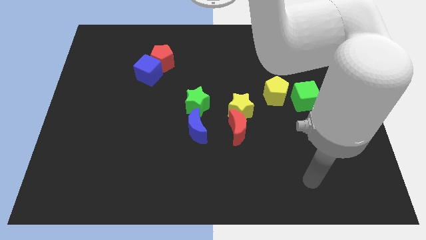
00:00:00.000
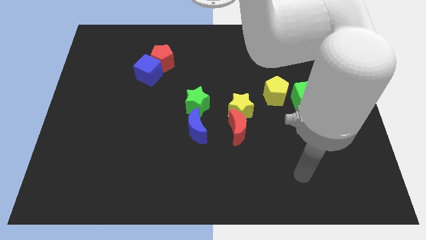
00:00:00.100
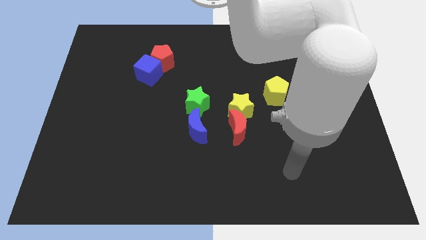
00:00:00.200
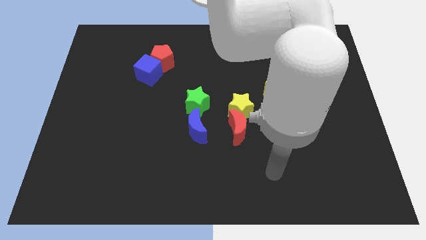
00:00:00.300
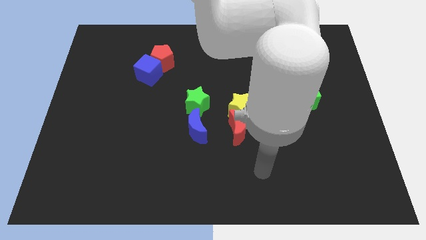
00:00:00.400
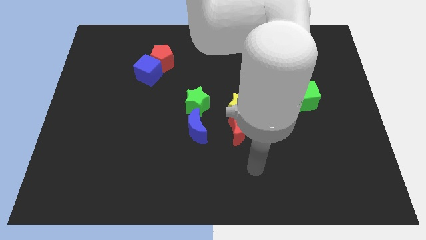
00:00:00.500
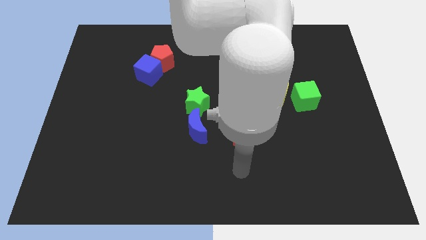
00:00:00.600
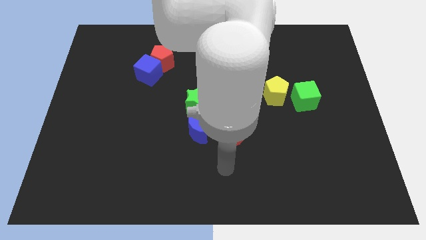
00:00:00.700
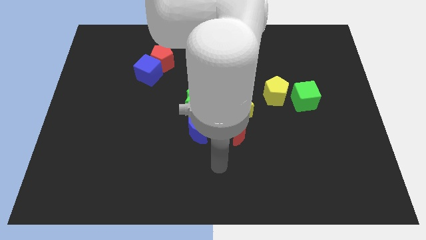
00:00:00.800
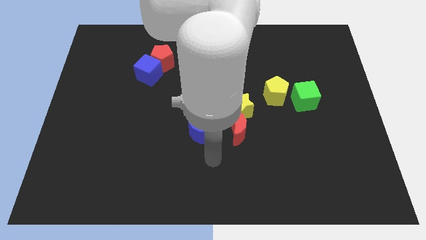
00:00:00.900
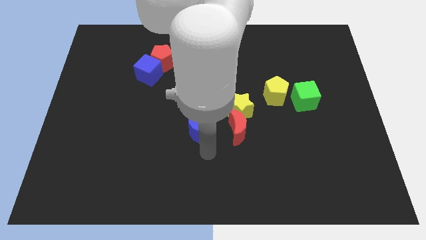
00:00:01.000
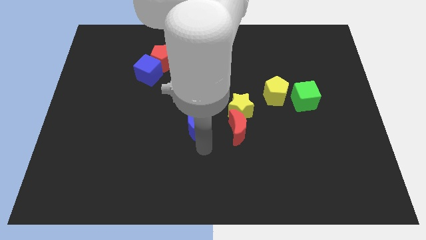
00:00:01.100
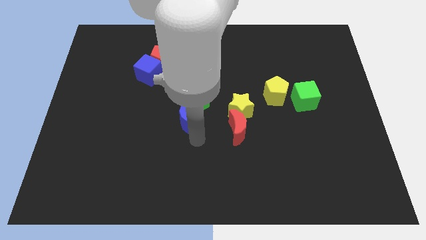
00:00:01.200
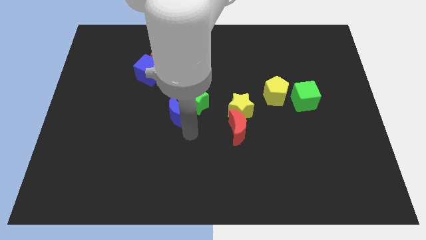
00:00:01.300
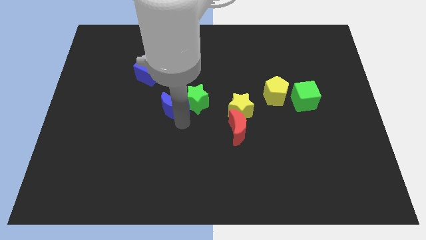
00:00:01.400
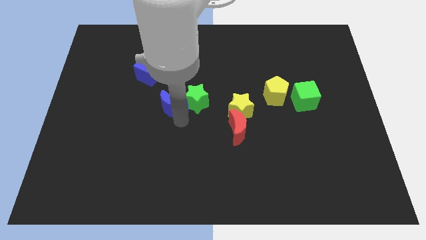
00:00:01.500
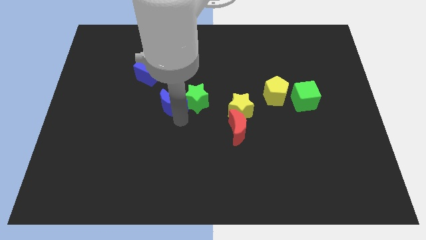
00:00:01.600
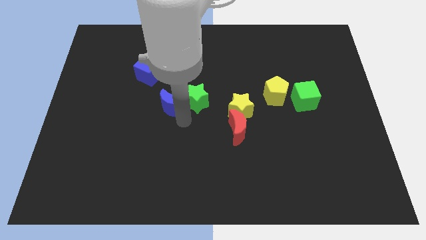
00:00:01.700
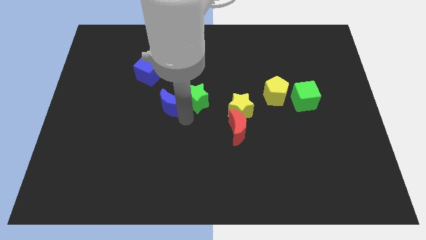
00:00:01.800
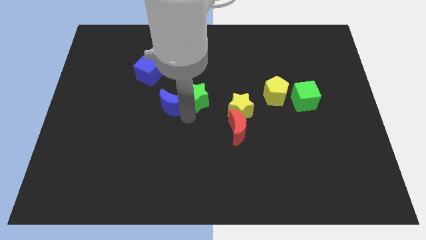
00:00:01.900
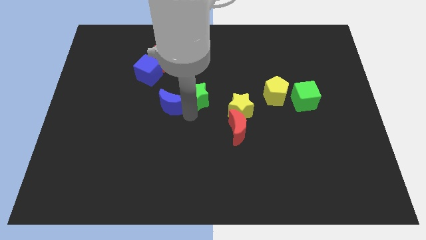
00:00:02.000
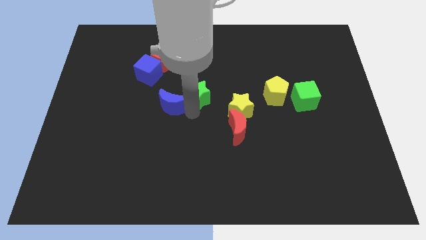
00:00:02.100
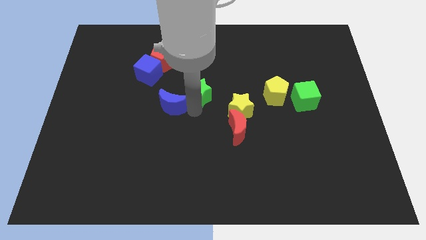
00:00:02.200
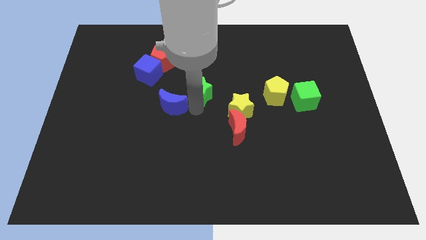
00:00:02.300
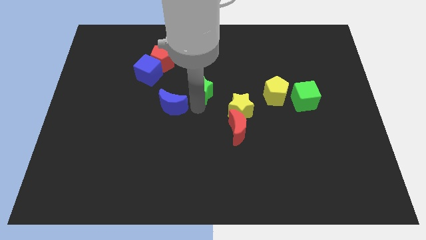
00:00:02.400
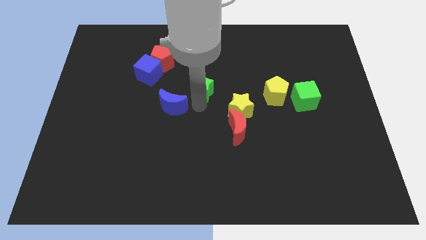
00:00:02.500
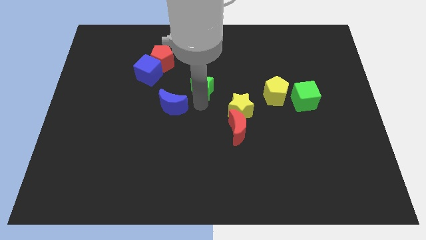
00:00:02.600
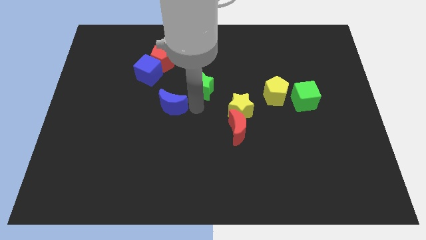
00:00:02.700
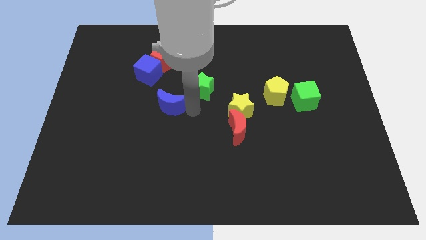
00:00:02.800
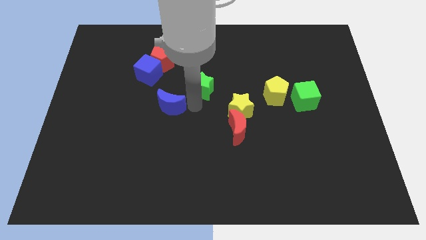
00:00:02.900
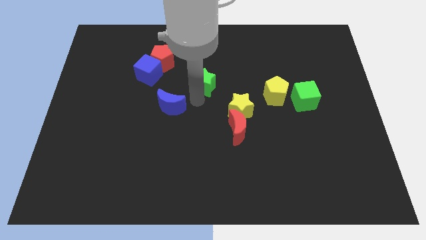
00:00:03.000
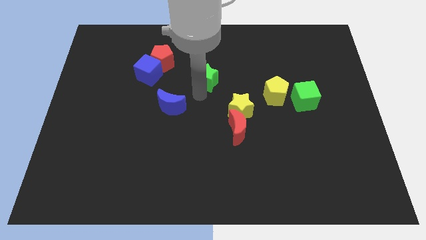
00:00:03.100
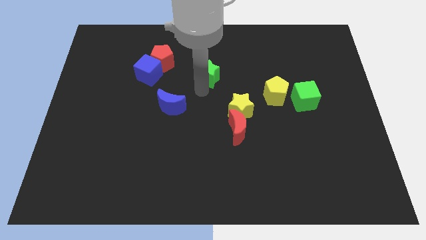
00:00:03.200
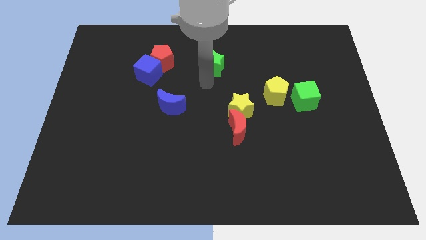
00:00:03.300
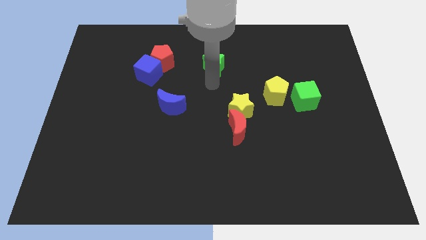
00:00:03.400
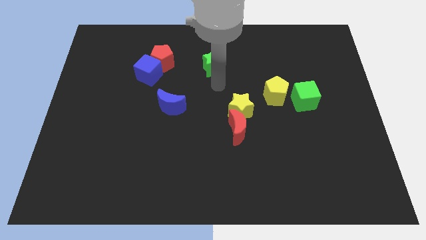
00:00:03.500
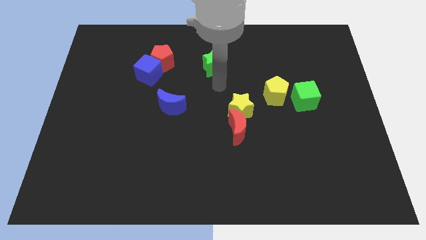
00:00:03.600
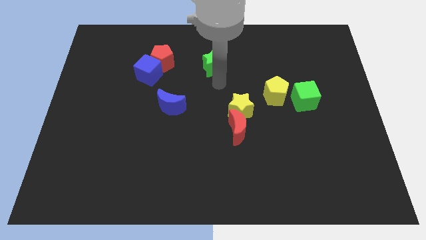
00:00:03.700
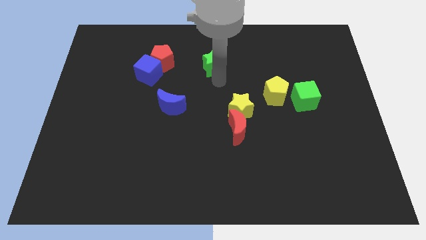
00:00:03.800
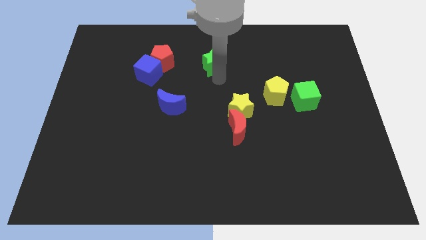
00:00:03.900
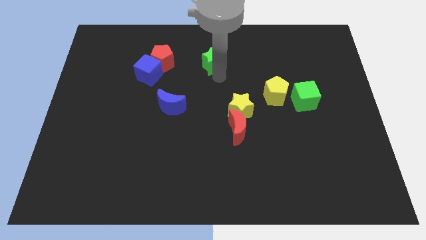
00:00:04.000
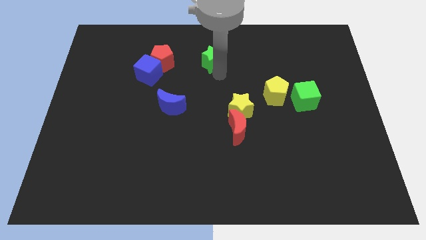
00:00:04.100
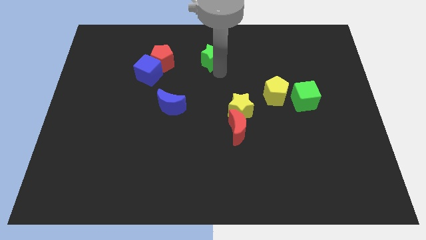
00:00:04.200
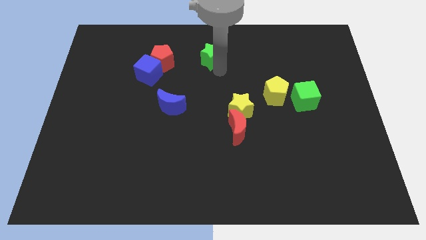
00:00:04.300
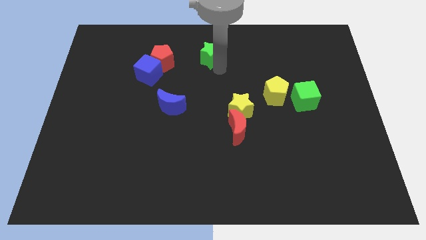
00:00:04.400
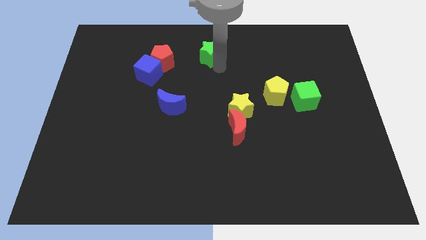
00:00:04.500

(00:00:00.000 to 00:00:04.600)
put the green star to the top side

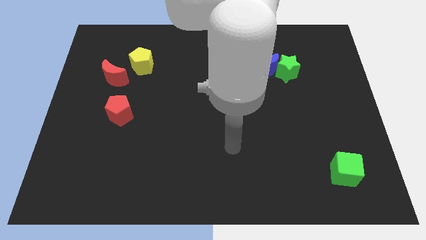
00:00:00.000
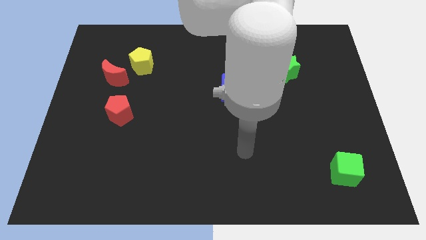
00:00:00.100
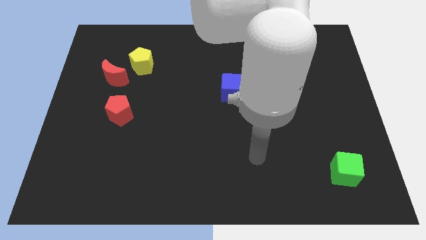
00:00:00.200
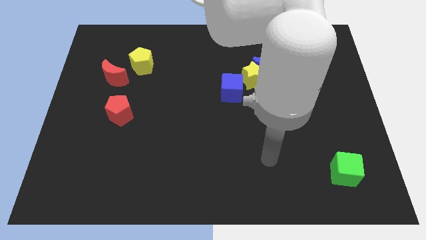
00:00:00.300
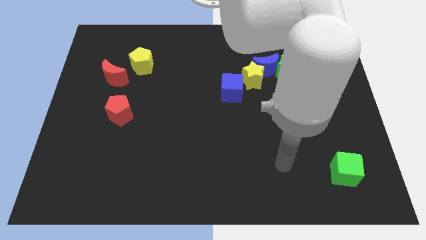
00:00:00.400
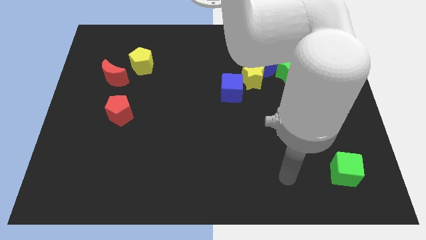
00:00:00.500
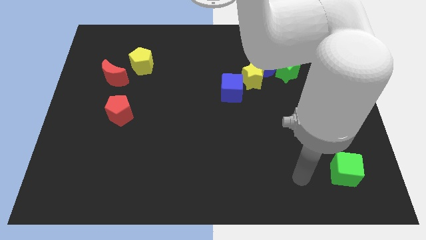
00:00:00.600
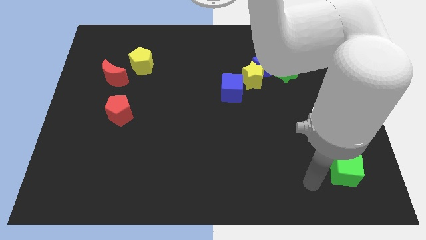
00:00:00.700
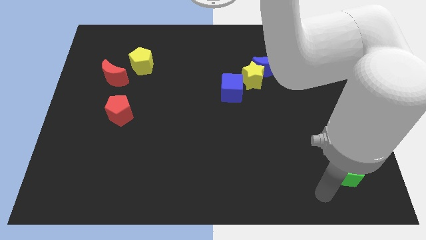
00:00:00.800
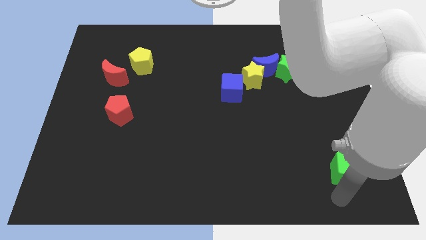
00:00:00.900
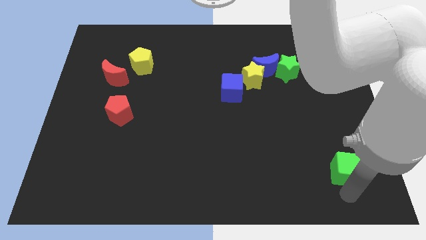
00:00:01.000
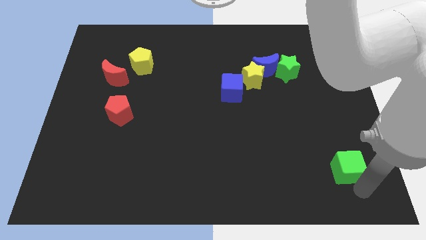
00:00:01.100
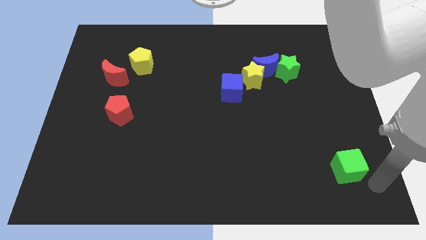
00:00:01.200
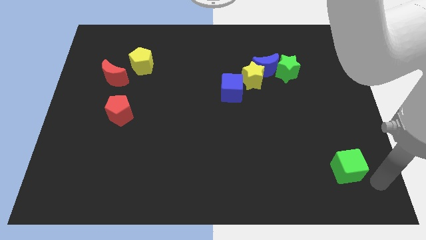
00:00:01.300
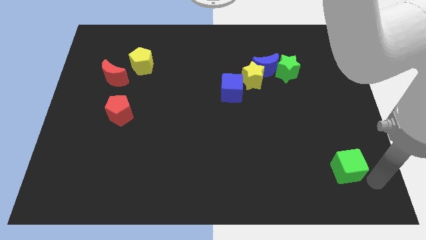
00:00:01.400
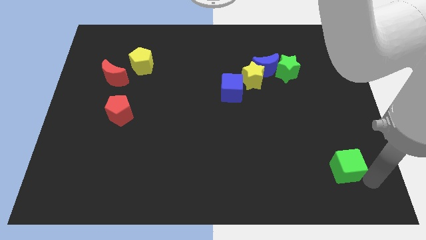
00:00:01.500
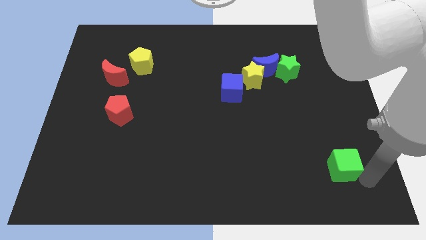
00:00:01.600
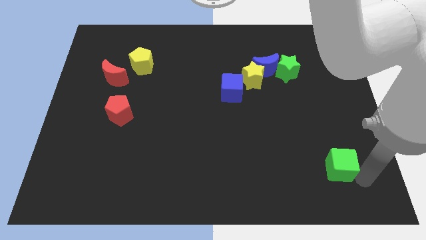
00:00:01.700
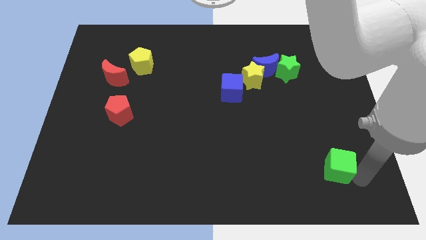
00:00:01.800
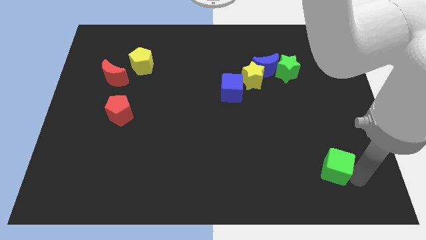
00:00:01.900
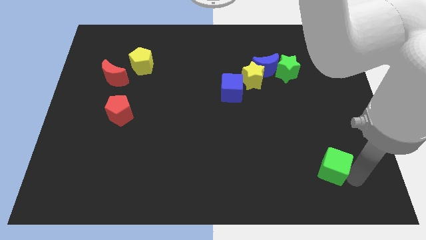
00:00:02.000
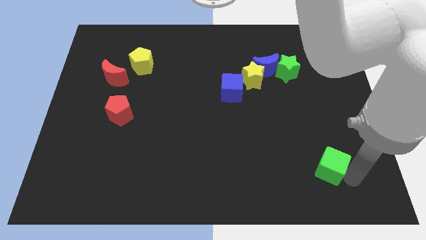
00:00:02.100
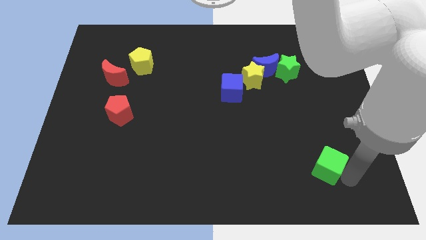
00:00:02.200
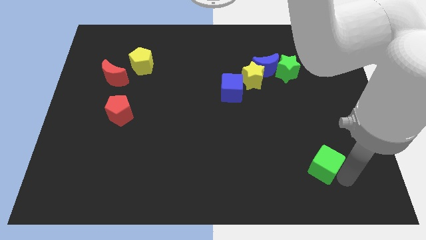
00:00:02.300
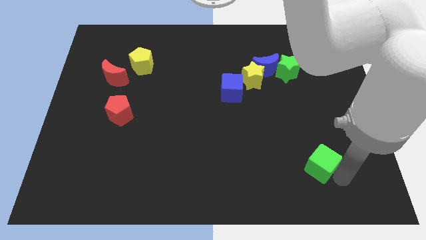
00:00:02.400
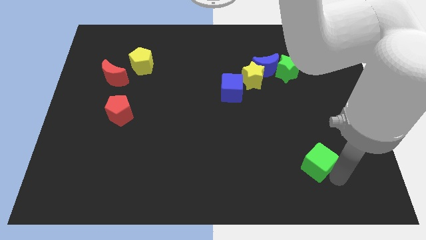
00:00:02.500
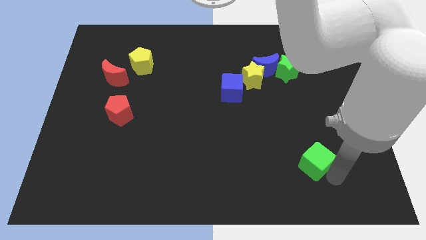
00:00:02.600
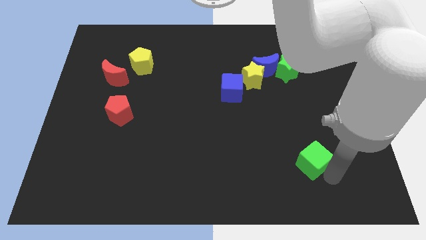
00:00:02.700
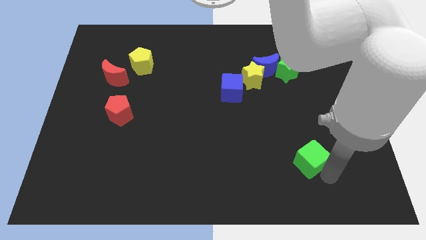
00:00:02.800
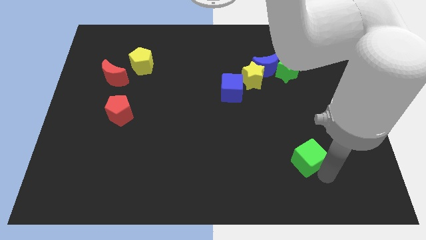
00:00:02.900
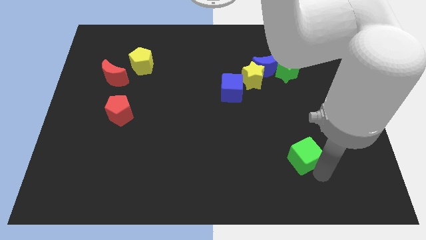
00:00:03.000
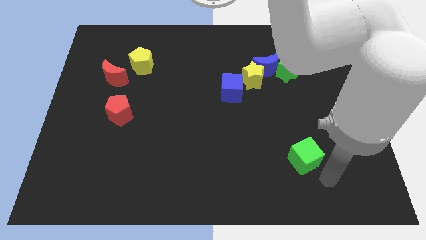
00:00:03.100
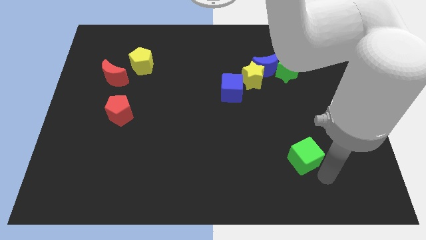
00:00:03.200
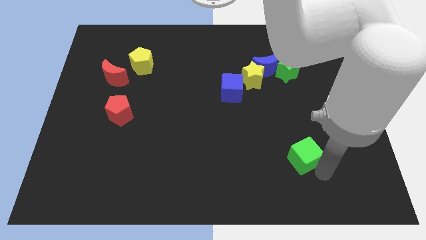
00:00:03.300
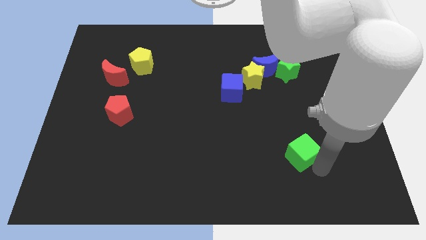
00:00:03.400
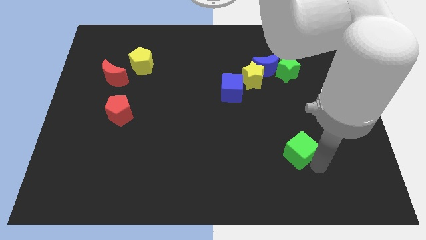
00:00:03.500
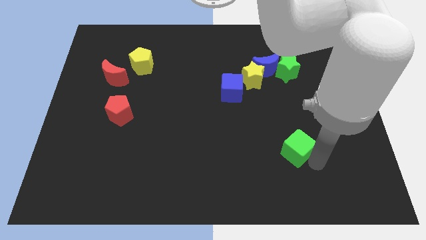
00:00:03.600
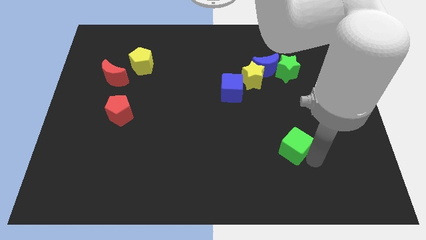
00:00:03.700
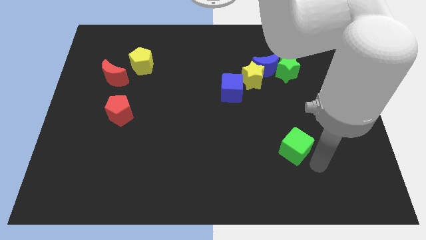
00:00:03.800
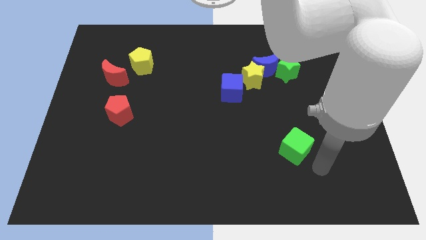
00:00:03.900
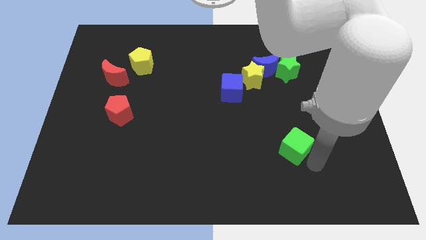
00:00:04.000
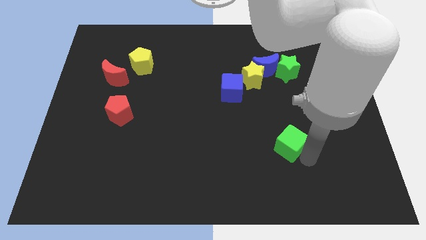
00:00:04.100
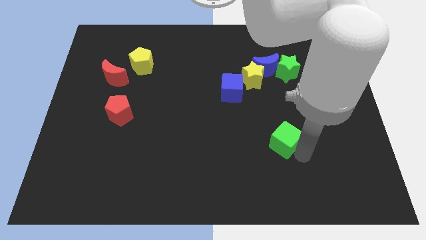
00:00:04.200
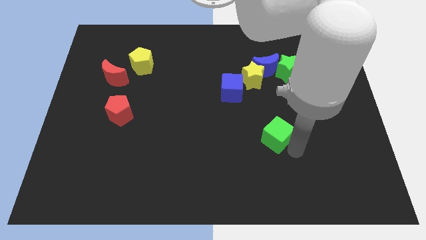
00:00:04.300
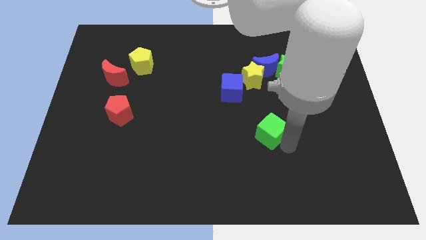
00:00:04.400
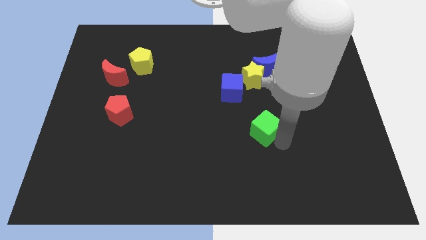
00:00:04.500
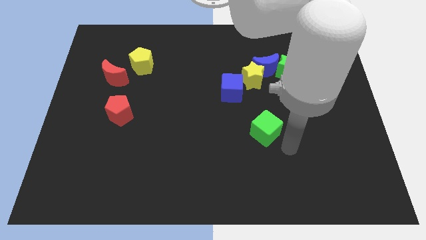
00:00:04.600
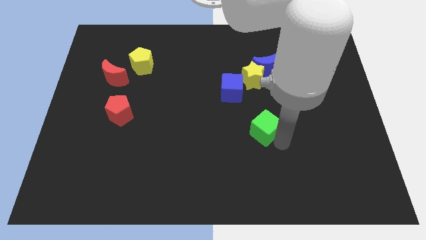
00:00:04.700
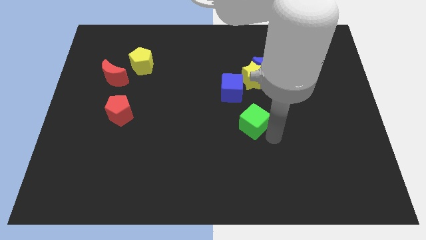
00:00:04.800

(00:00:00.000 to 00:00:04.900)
push the green cube to the center
